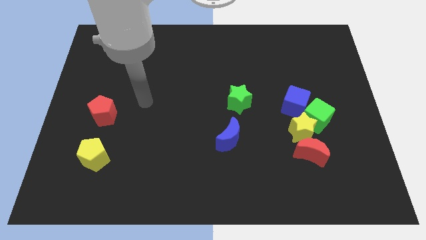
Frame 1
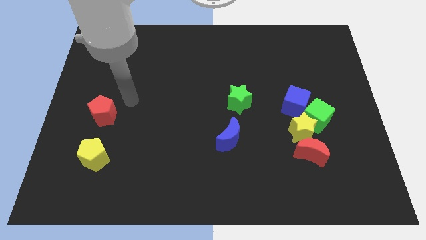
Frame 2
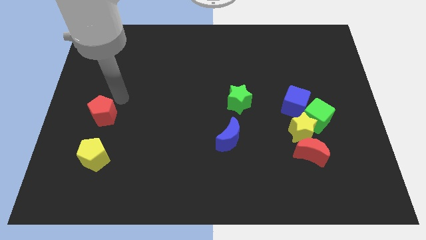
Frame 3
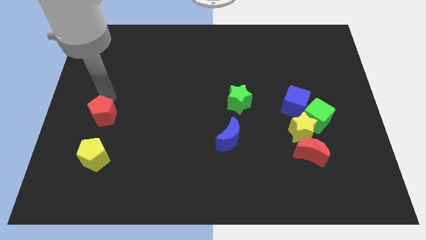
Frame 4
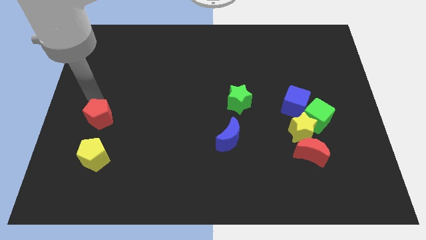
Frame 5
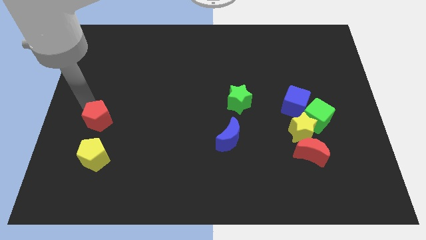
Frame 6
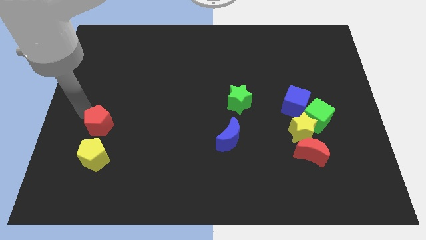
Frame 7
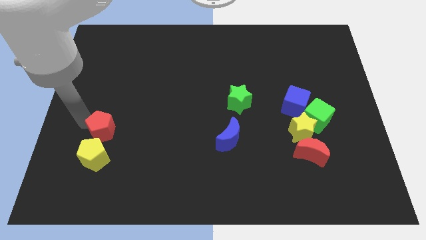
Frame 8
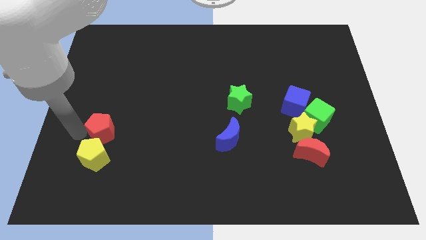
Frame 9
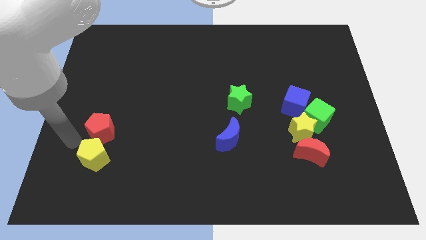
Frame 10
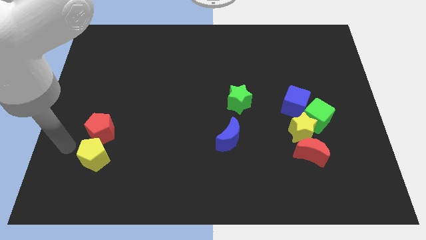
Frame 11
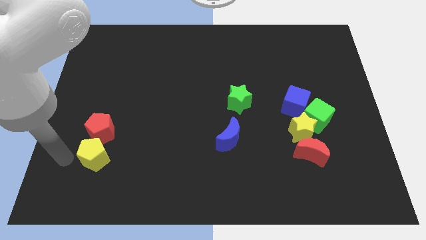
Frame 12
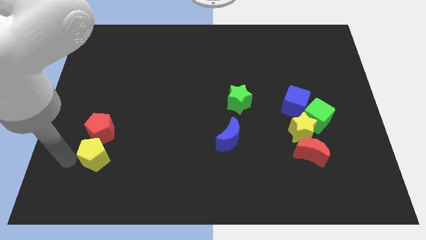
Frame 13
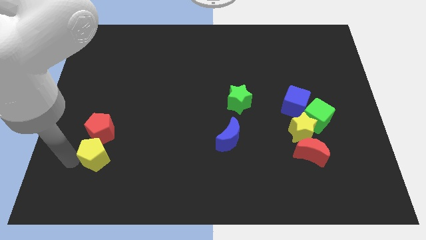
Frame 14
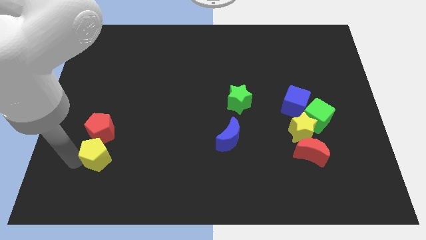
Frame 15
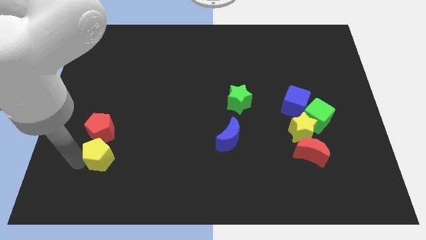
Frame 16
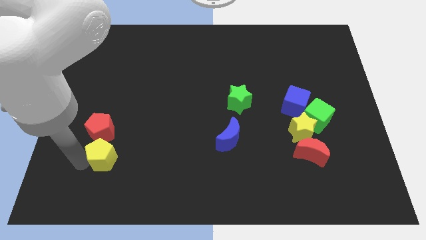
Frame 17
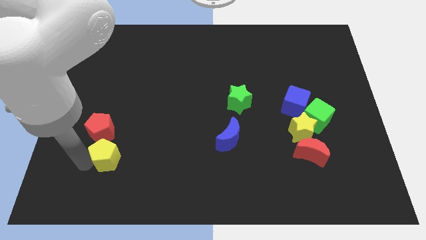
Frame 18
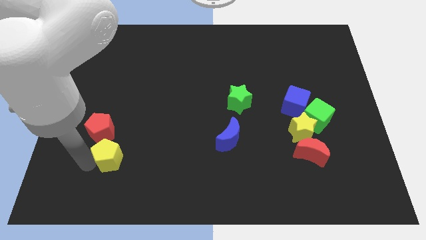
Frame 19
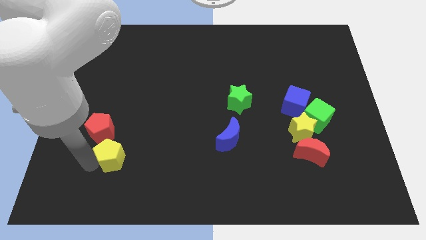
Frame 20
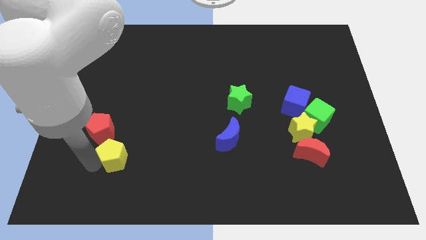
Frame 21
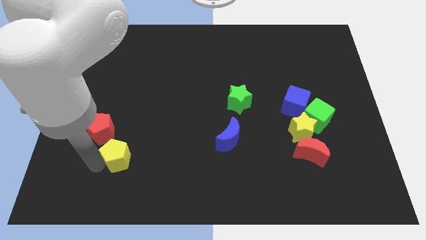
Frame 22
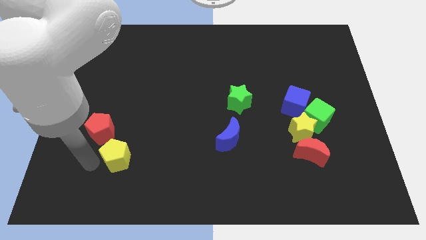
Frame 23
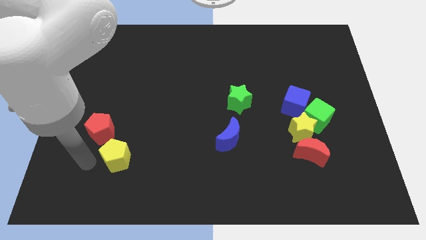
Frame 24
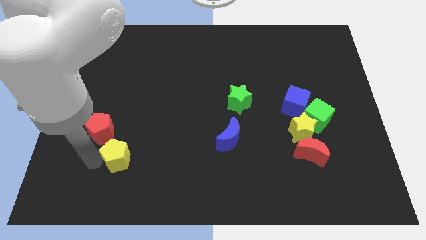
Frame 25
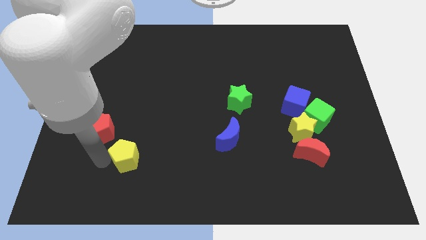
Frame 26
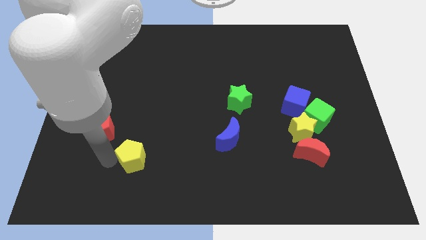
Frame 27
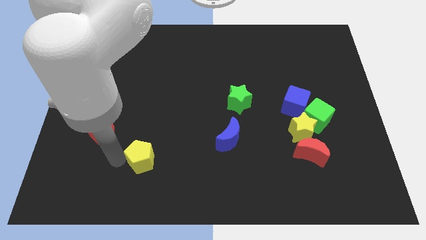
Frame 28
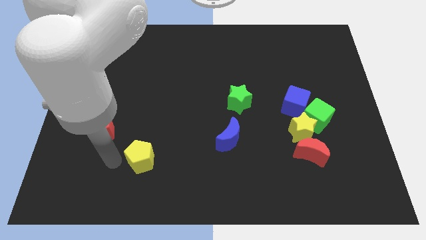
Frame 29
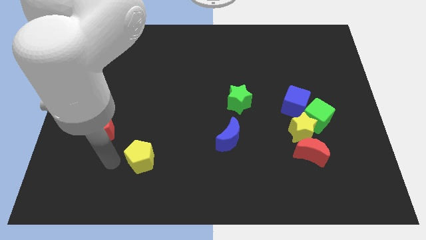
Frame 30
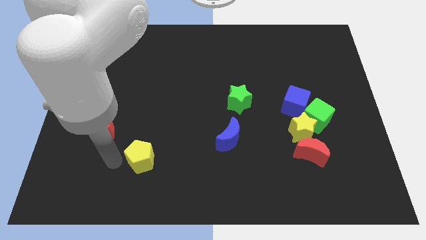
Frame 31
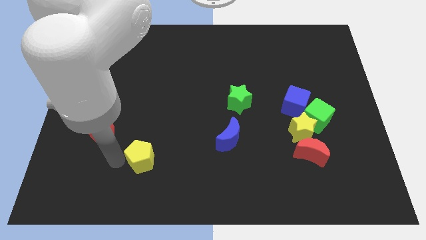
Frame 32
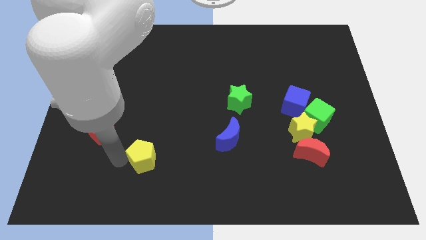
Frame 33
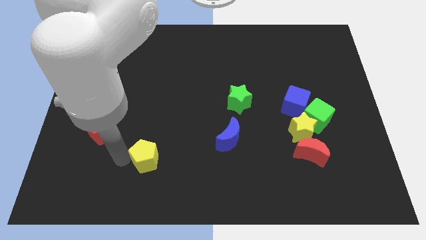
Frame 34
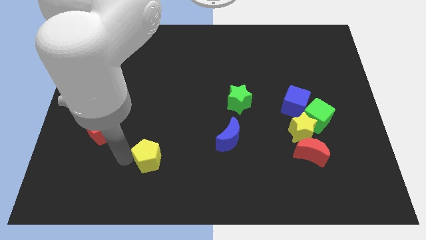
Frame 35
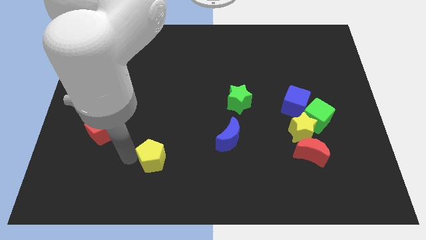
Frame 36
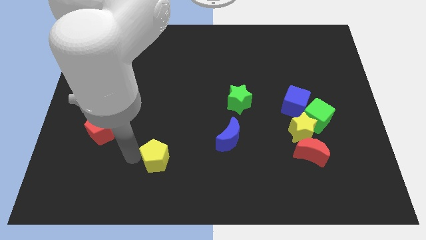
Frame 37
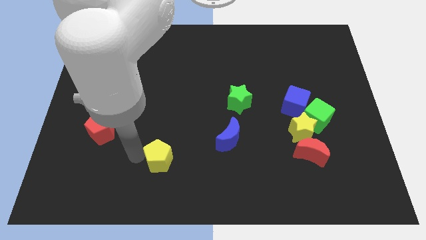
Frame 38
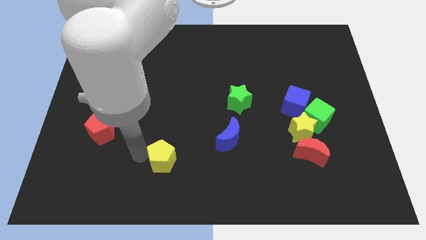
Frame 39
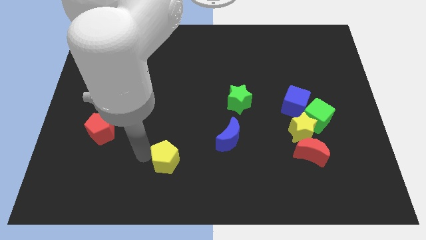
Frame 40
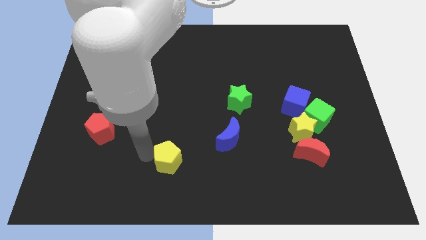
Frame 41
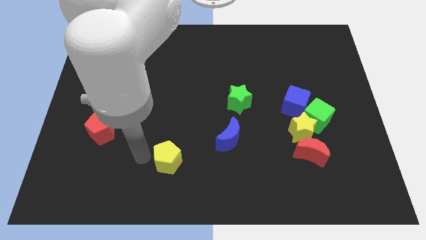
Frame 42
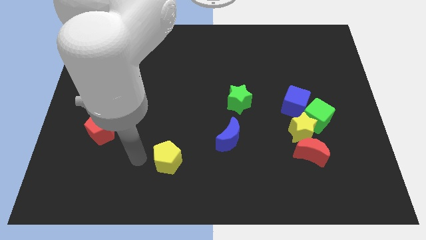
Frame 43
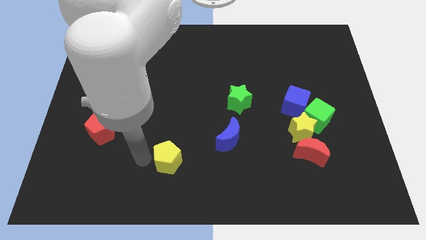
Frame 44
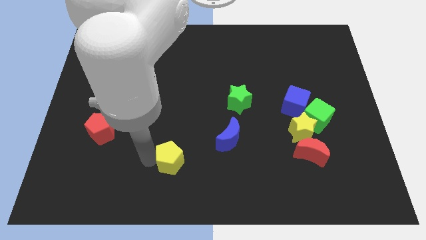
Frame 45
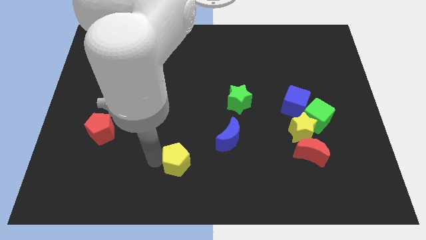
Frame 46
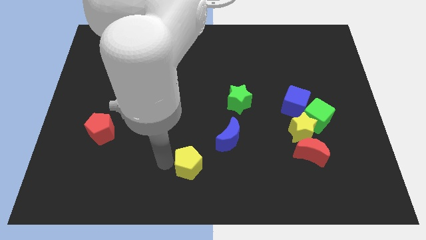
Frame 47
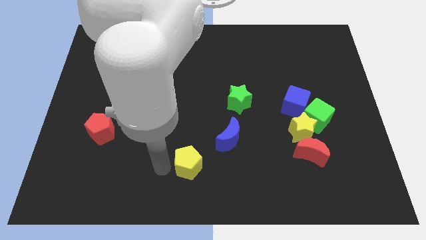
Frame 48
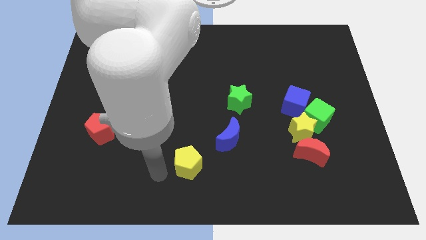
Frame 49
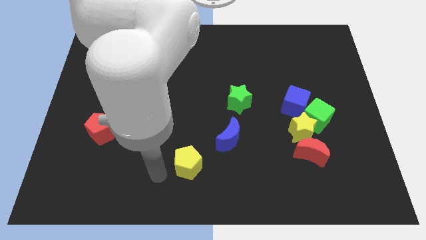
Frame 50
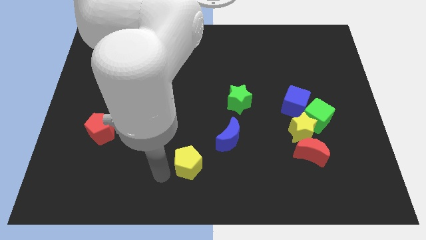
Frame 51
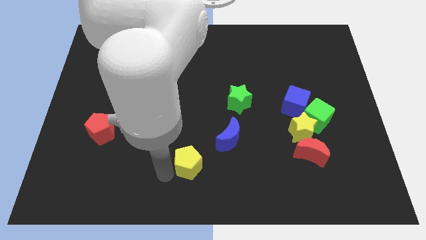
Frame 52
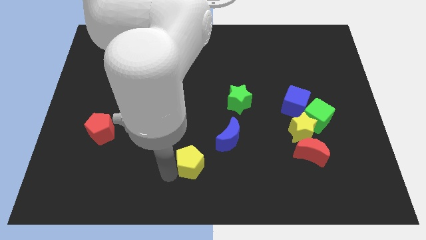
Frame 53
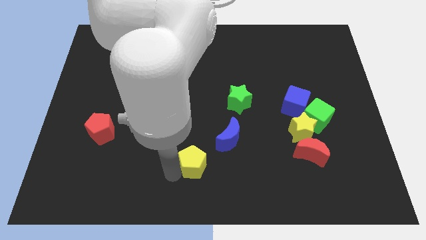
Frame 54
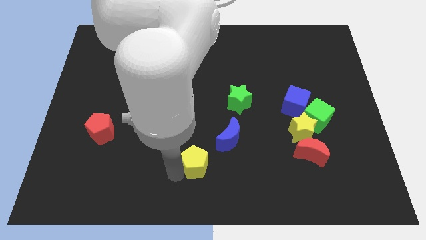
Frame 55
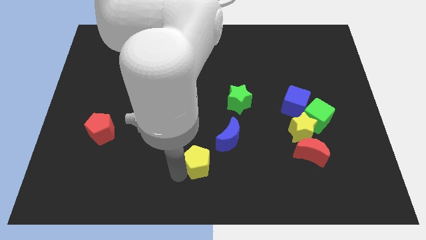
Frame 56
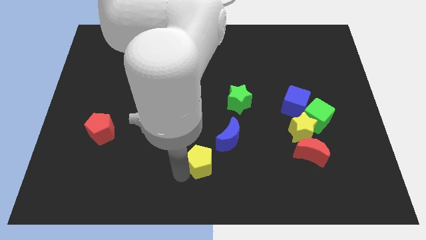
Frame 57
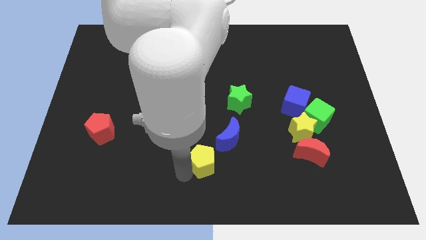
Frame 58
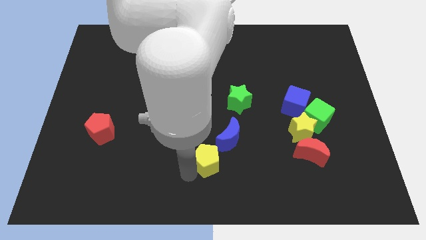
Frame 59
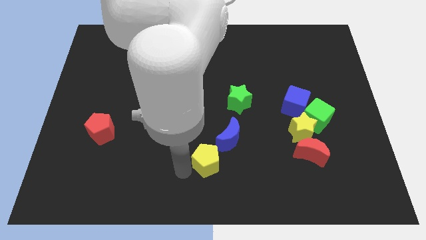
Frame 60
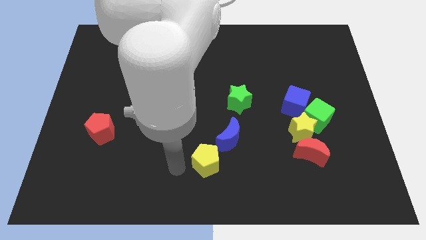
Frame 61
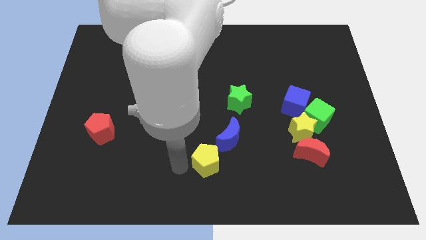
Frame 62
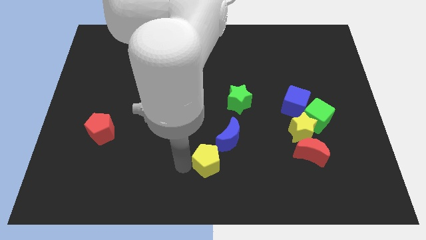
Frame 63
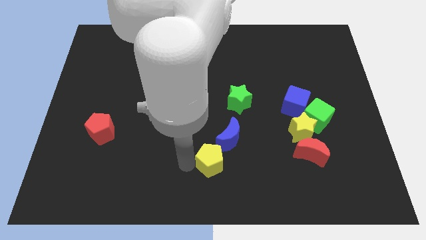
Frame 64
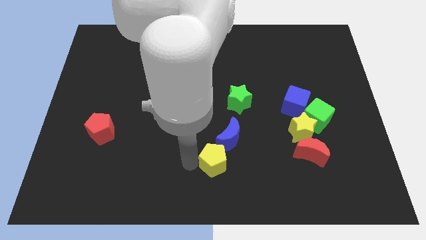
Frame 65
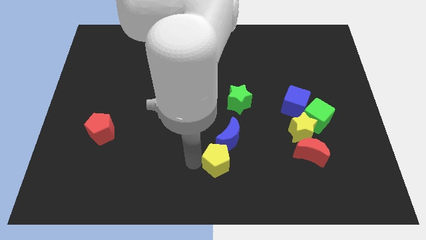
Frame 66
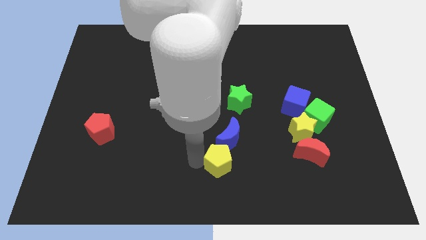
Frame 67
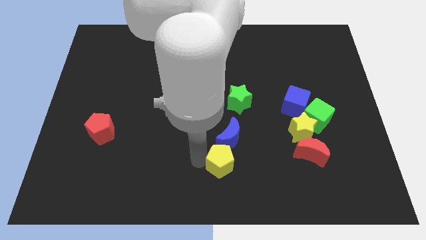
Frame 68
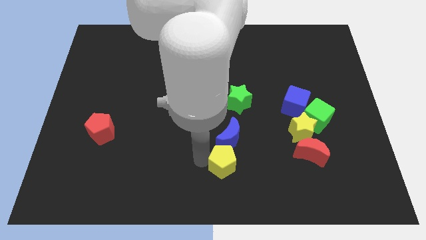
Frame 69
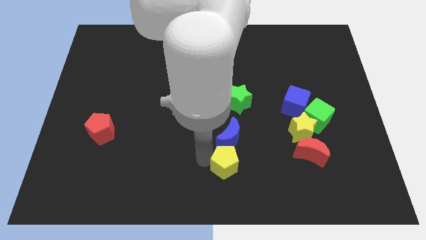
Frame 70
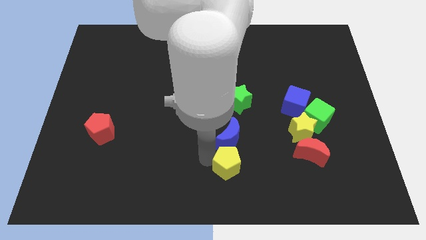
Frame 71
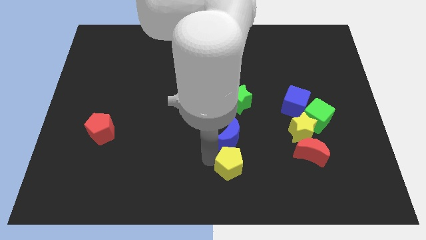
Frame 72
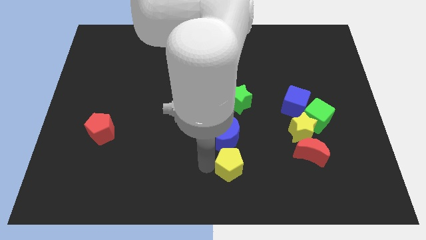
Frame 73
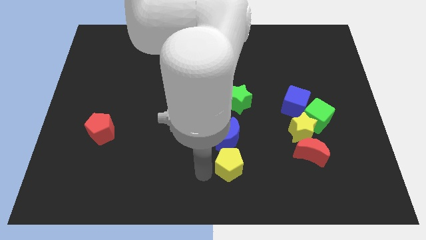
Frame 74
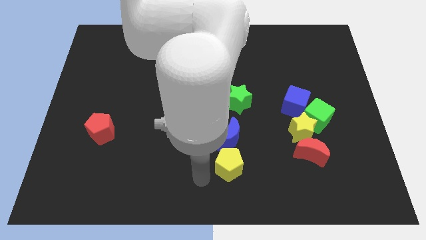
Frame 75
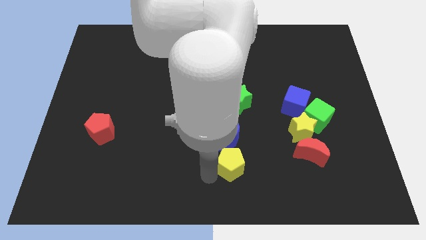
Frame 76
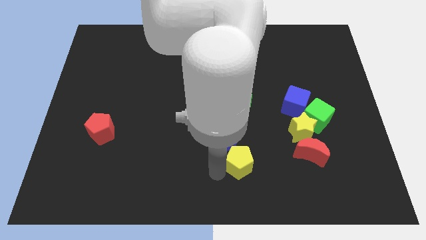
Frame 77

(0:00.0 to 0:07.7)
slide the yellow pentagon just left of the red moon
